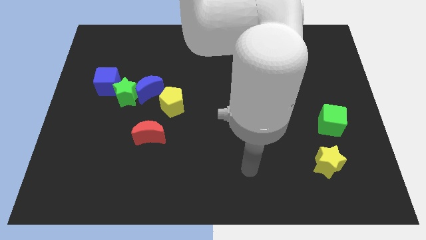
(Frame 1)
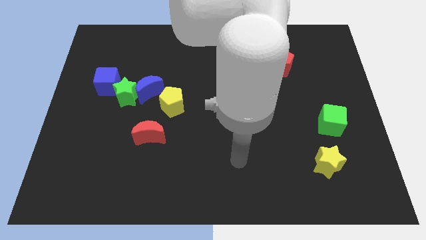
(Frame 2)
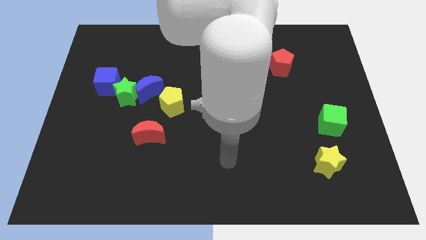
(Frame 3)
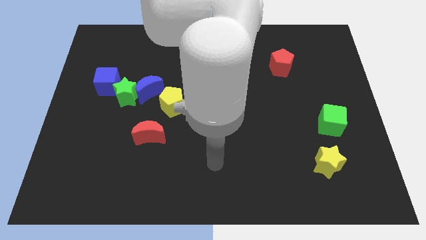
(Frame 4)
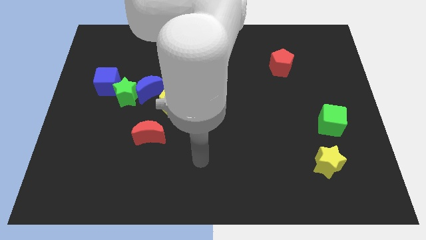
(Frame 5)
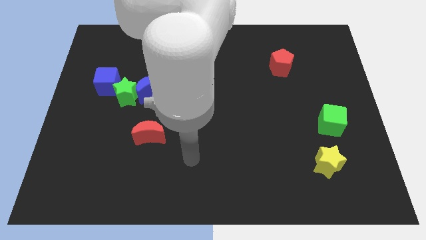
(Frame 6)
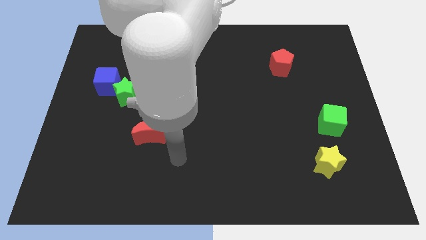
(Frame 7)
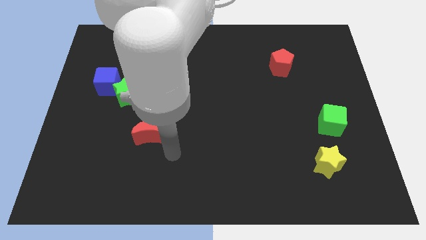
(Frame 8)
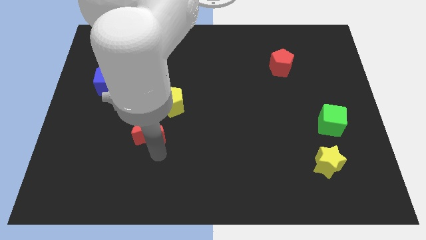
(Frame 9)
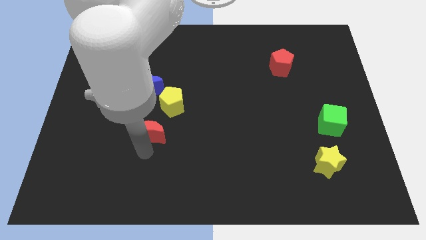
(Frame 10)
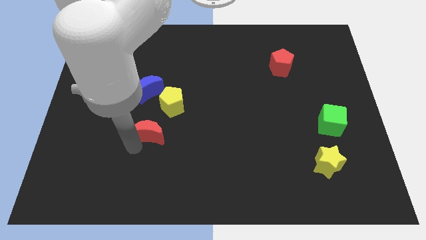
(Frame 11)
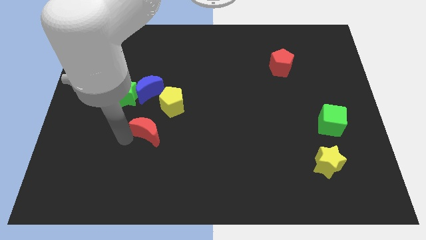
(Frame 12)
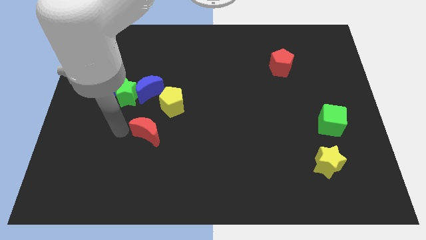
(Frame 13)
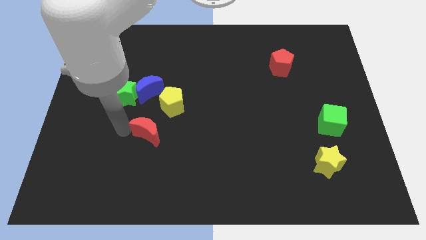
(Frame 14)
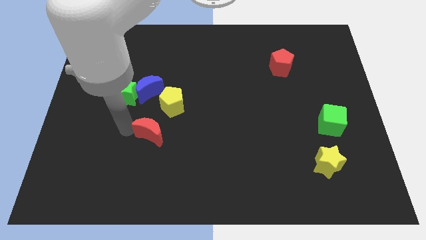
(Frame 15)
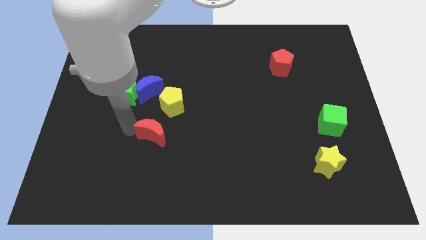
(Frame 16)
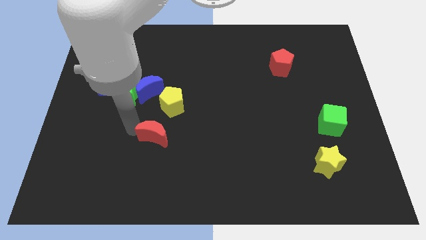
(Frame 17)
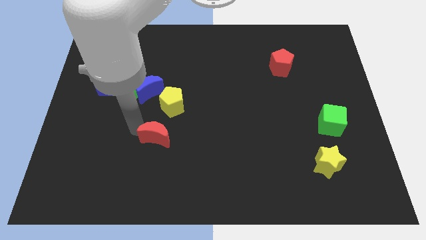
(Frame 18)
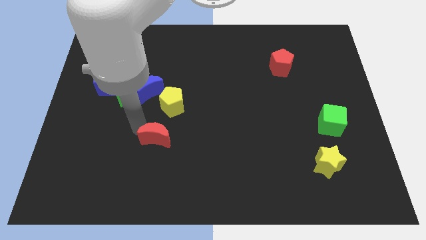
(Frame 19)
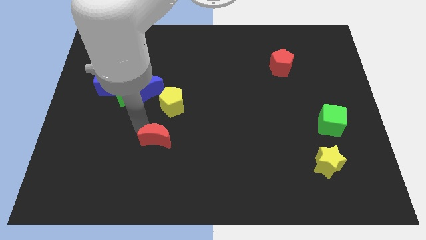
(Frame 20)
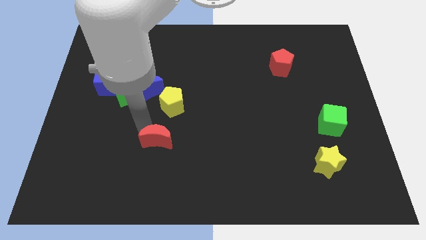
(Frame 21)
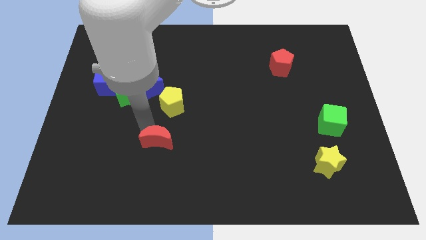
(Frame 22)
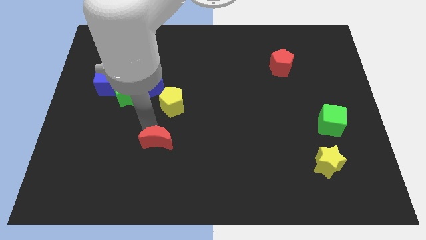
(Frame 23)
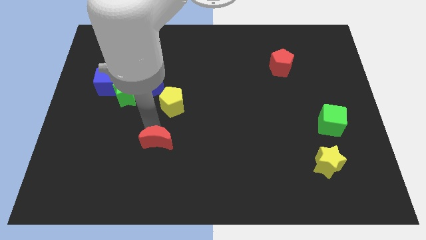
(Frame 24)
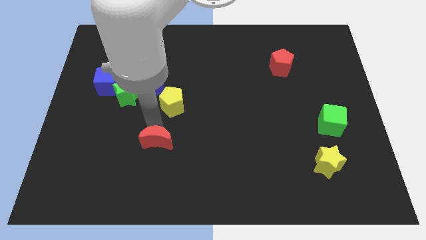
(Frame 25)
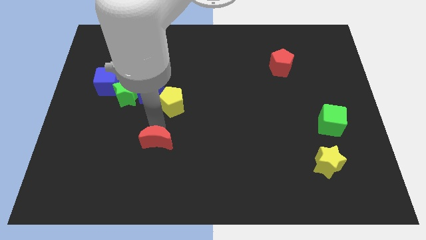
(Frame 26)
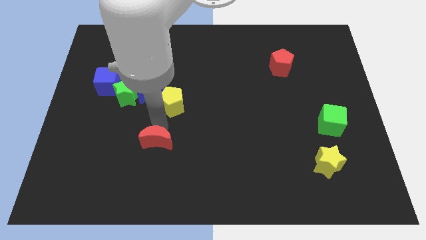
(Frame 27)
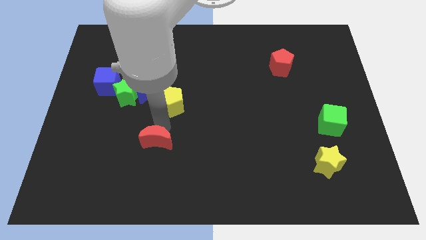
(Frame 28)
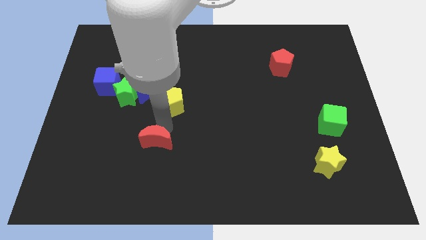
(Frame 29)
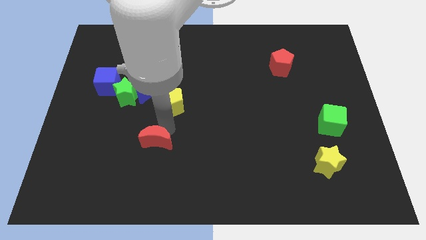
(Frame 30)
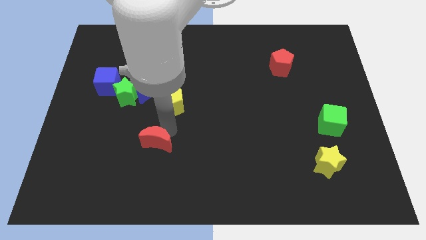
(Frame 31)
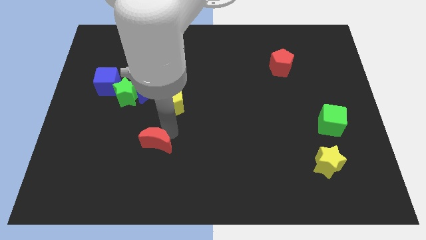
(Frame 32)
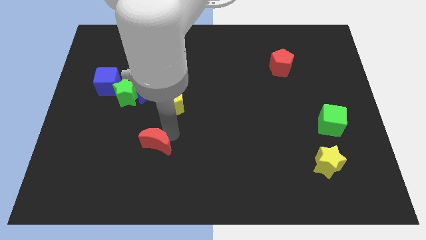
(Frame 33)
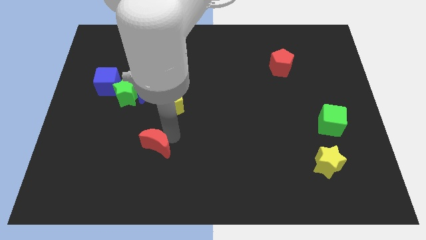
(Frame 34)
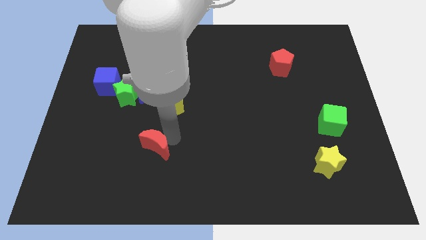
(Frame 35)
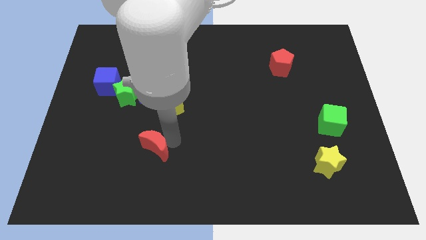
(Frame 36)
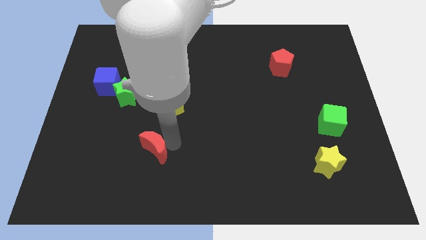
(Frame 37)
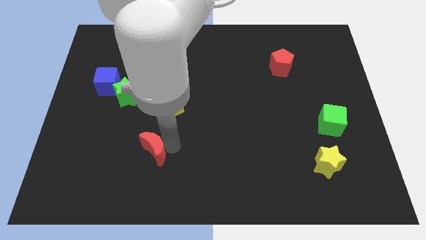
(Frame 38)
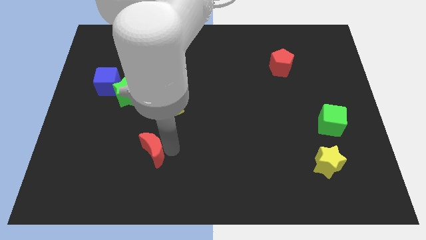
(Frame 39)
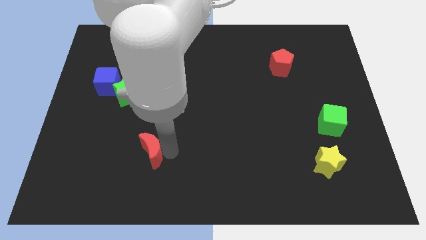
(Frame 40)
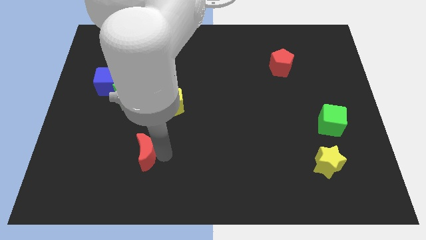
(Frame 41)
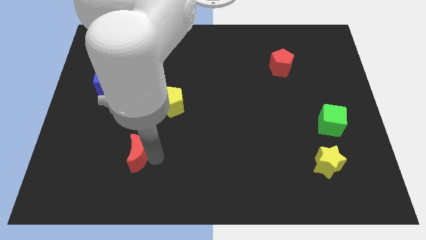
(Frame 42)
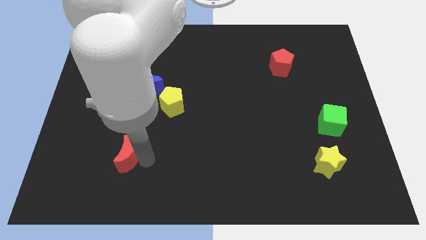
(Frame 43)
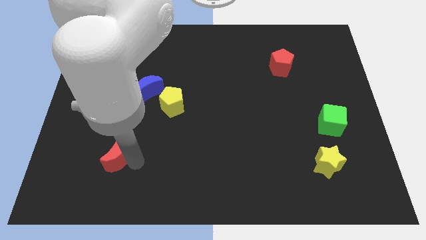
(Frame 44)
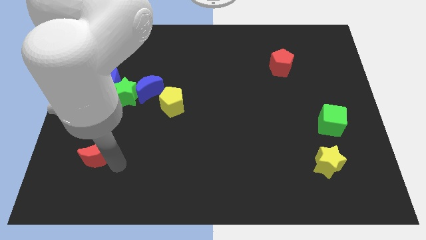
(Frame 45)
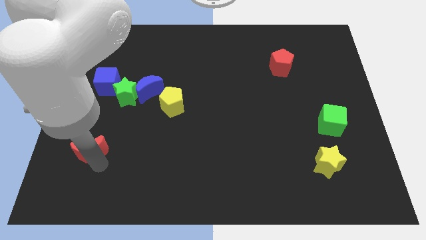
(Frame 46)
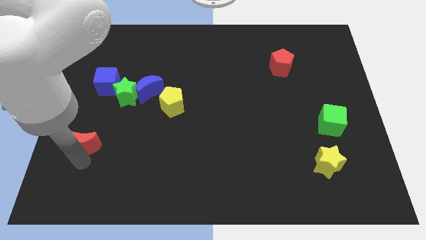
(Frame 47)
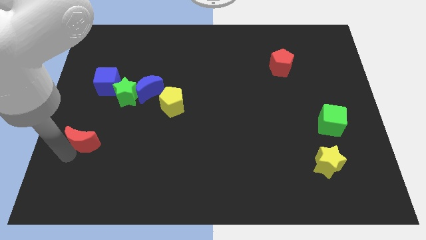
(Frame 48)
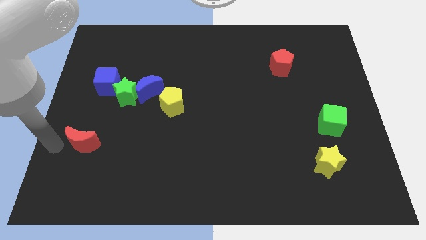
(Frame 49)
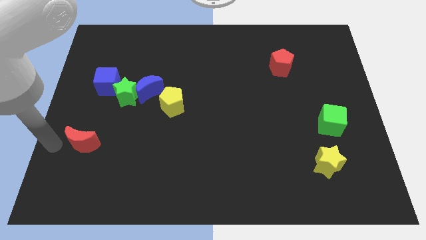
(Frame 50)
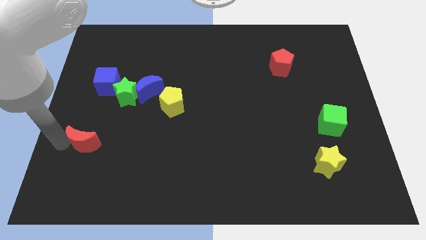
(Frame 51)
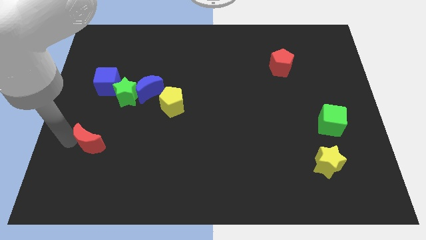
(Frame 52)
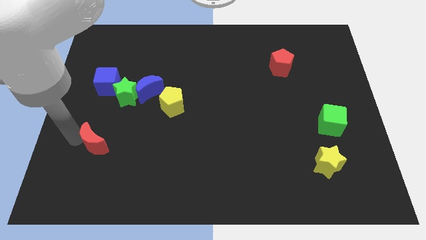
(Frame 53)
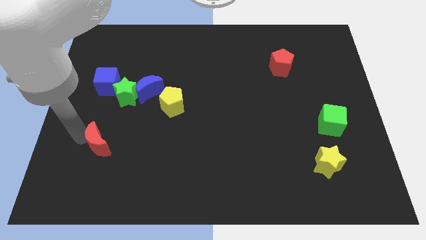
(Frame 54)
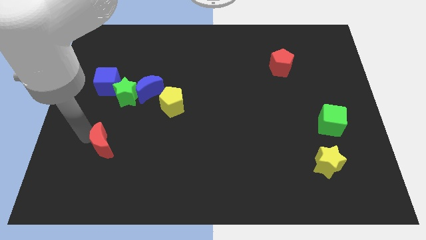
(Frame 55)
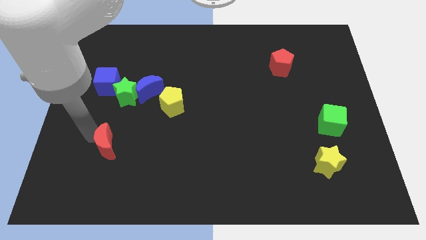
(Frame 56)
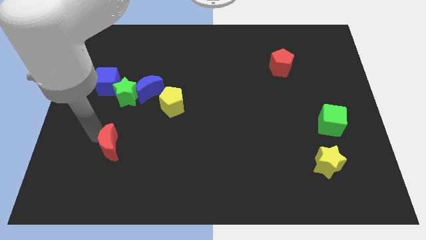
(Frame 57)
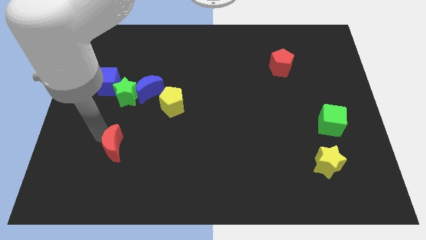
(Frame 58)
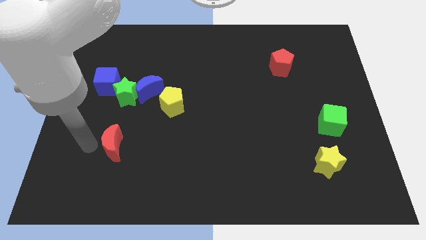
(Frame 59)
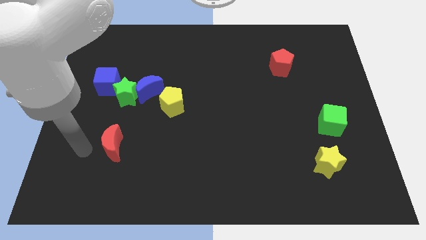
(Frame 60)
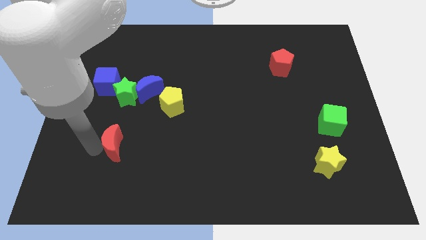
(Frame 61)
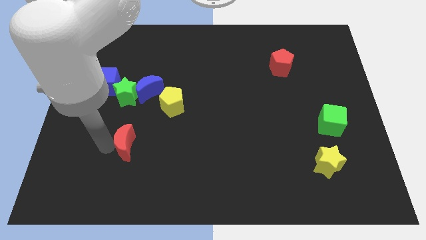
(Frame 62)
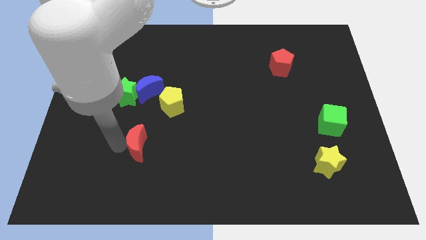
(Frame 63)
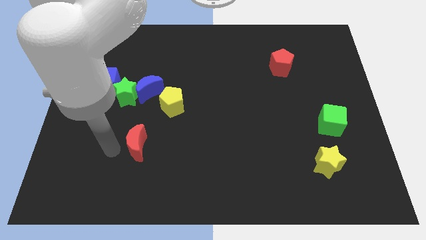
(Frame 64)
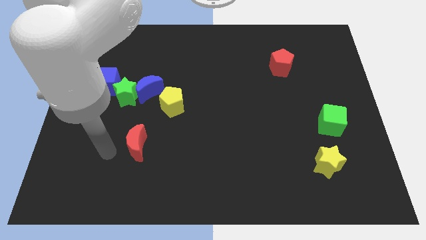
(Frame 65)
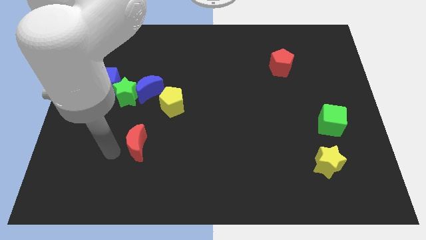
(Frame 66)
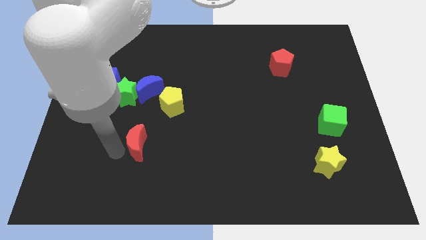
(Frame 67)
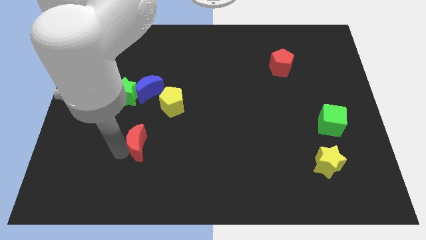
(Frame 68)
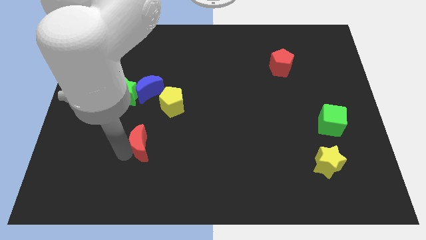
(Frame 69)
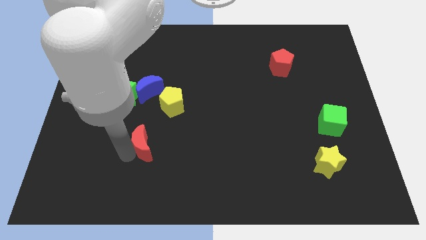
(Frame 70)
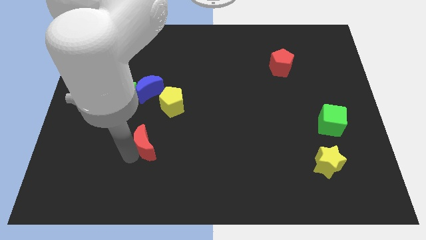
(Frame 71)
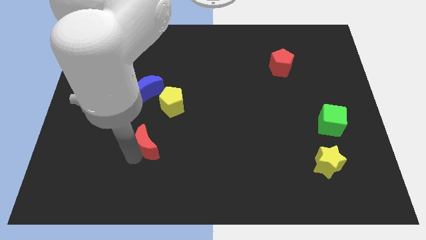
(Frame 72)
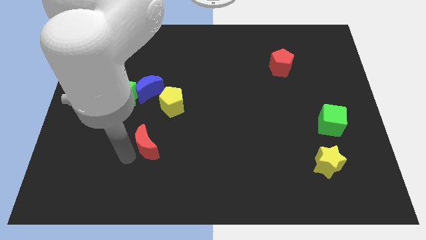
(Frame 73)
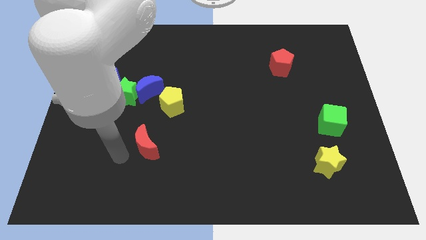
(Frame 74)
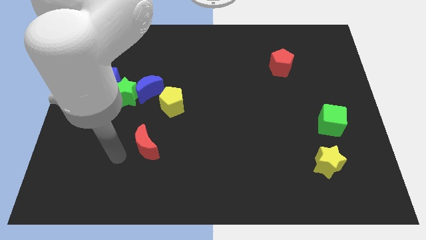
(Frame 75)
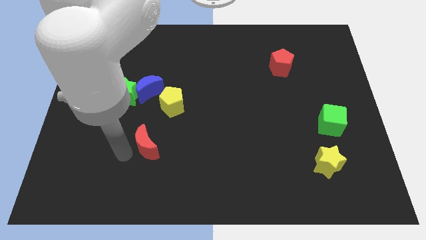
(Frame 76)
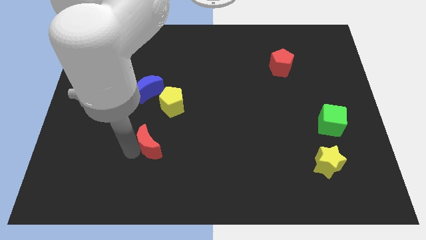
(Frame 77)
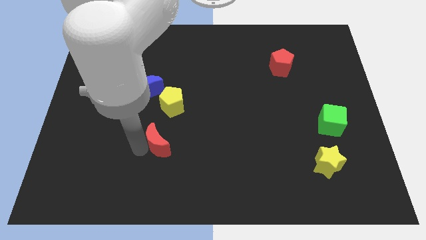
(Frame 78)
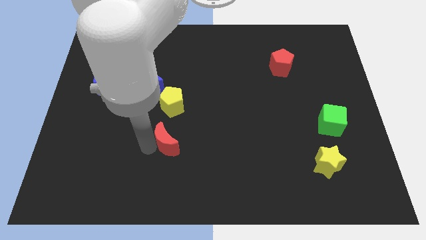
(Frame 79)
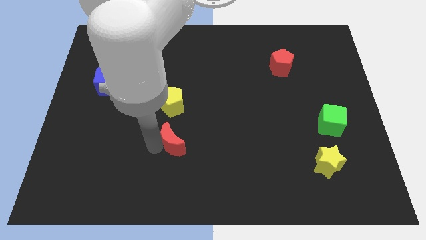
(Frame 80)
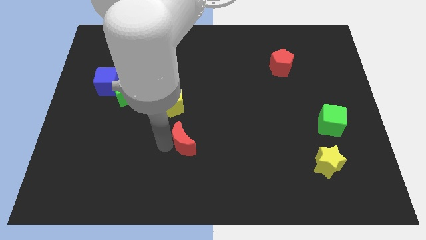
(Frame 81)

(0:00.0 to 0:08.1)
move the red moon a little to the right

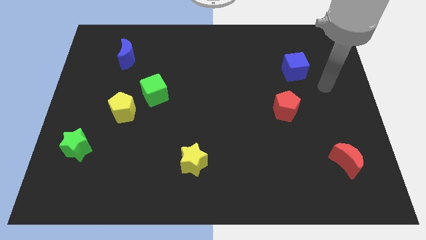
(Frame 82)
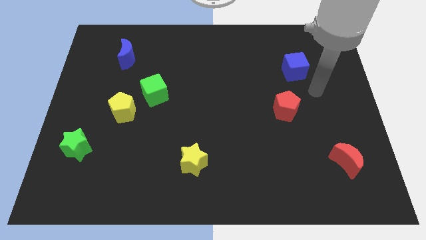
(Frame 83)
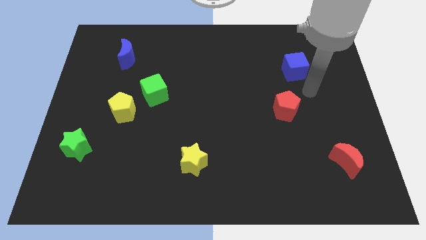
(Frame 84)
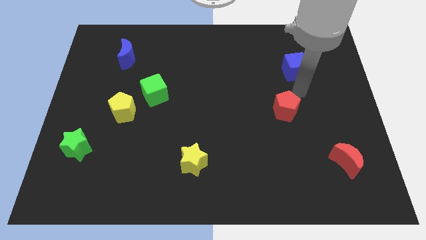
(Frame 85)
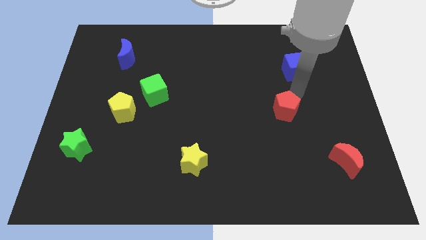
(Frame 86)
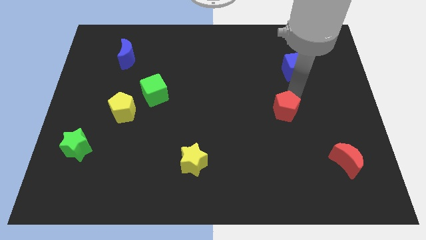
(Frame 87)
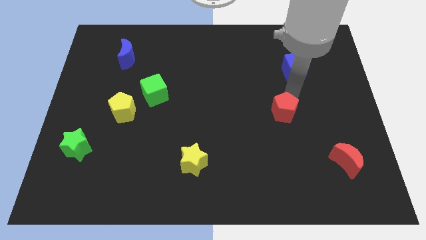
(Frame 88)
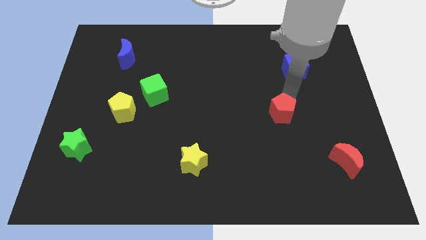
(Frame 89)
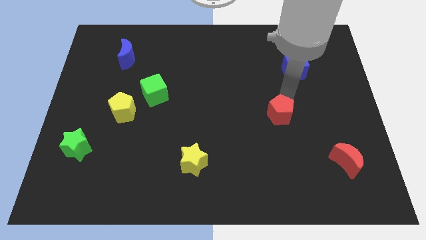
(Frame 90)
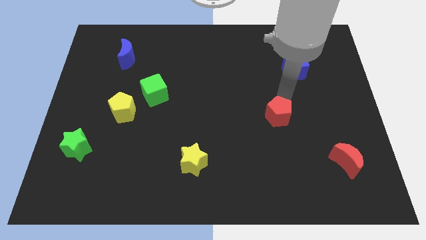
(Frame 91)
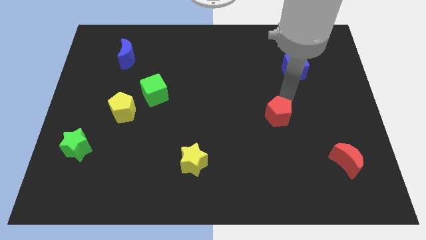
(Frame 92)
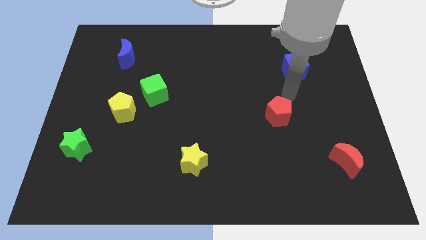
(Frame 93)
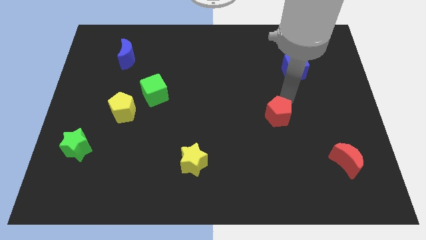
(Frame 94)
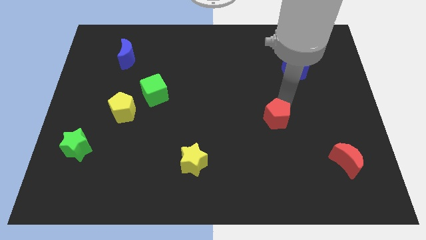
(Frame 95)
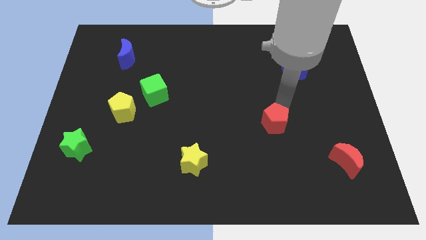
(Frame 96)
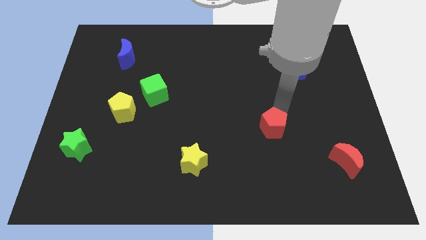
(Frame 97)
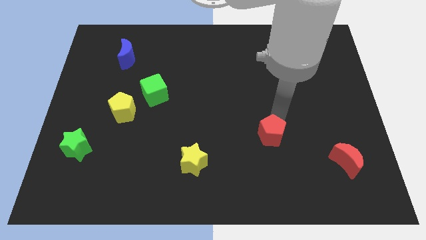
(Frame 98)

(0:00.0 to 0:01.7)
slightly move the red pentagon down and left diagonally
